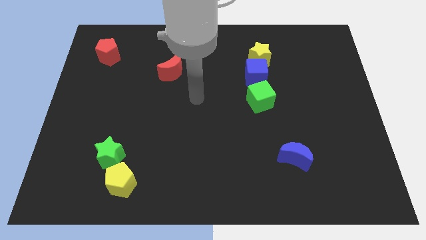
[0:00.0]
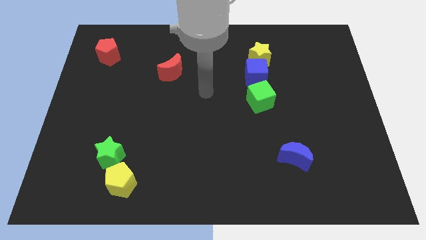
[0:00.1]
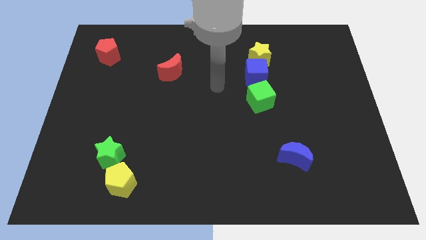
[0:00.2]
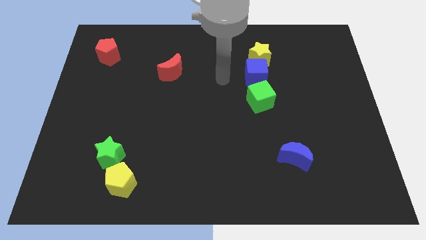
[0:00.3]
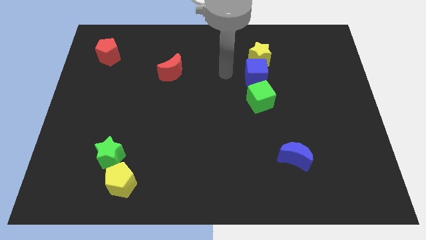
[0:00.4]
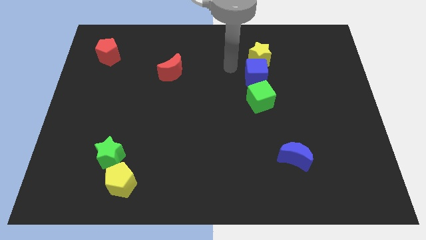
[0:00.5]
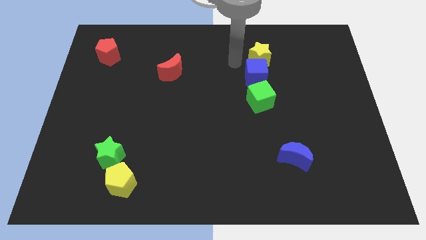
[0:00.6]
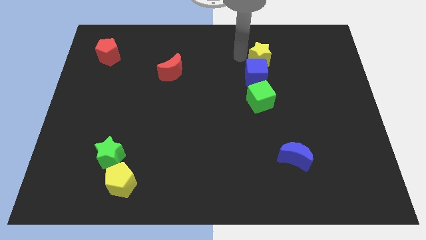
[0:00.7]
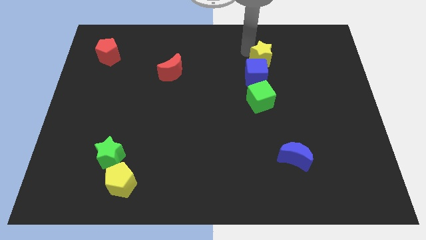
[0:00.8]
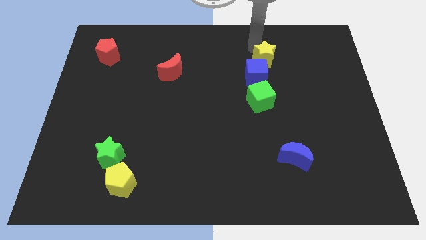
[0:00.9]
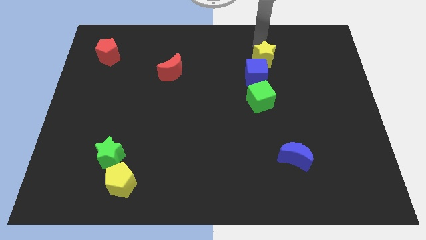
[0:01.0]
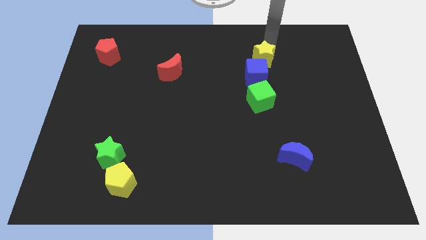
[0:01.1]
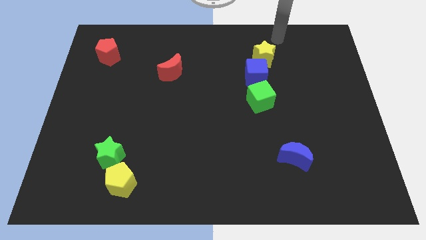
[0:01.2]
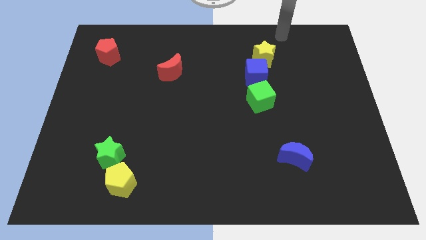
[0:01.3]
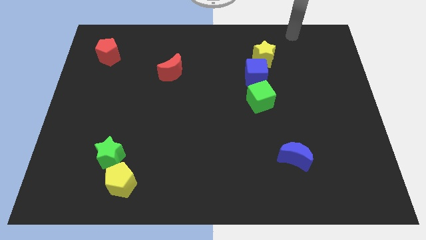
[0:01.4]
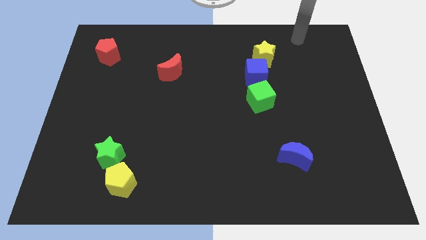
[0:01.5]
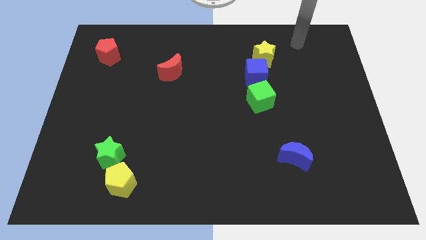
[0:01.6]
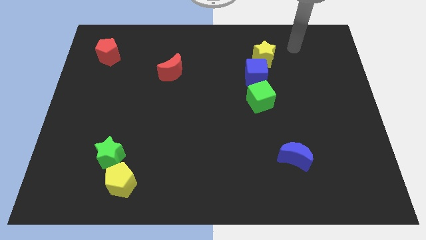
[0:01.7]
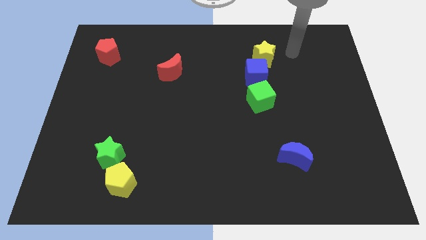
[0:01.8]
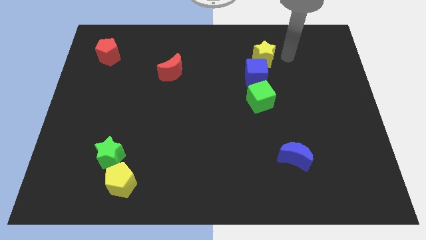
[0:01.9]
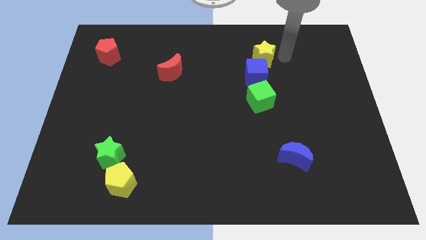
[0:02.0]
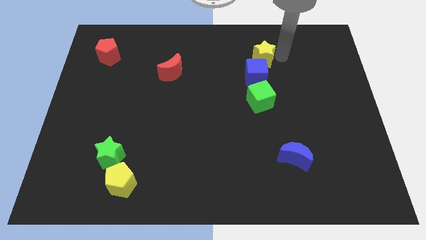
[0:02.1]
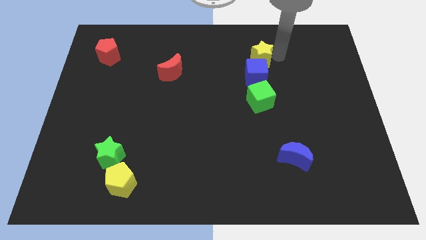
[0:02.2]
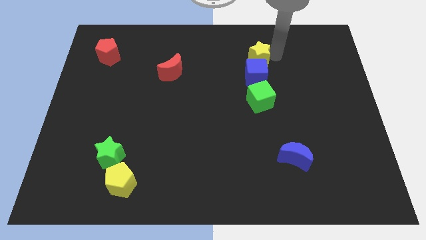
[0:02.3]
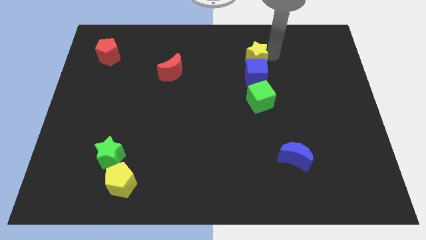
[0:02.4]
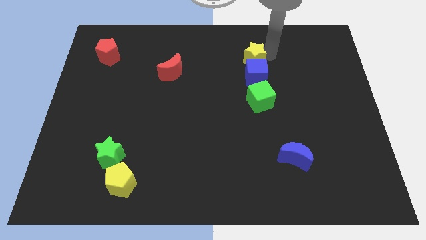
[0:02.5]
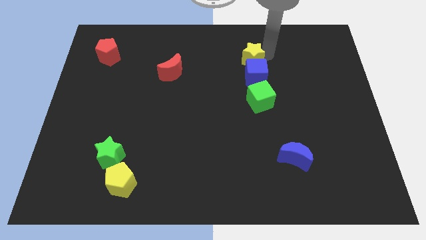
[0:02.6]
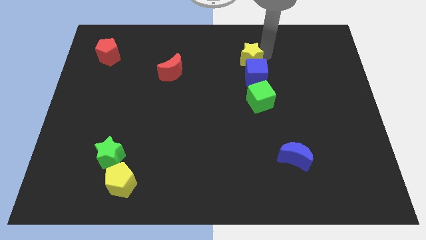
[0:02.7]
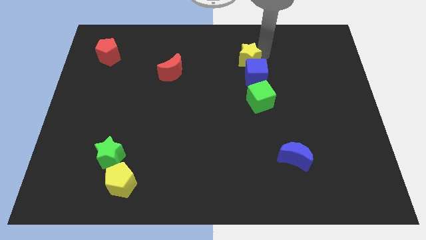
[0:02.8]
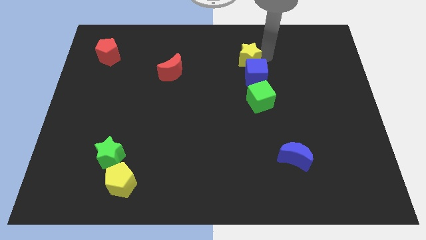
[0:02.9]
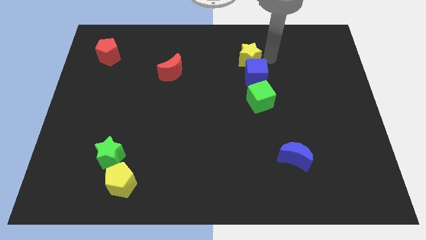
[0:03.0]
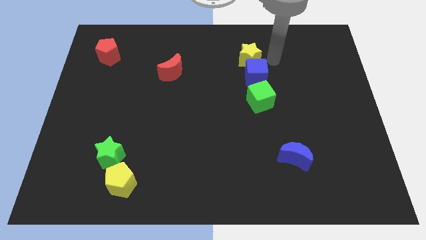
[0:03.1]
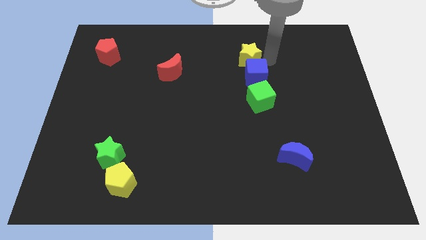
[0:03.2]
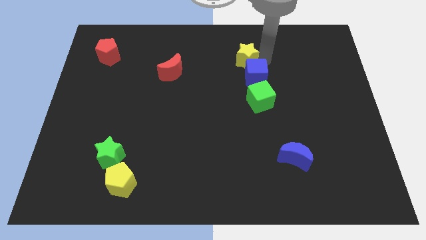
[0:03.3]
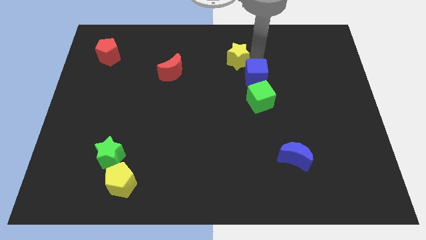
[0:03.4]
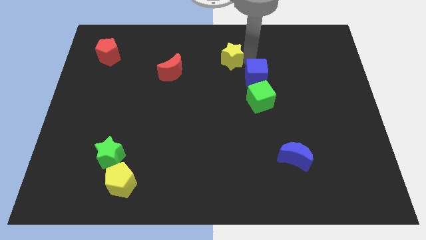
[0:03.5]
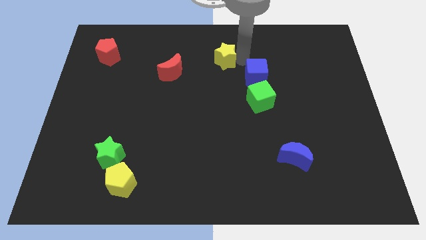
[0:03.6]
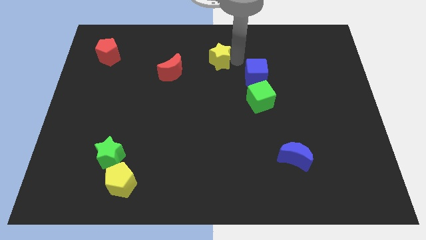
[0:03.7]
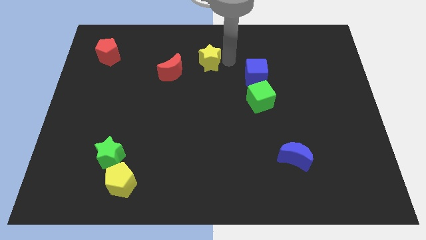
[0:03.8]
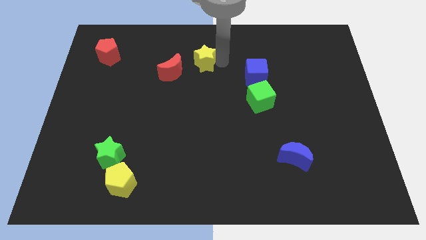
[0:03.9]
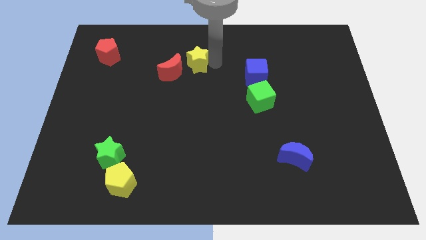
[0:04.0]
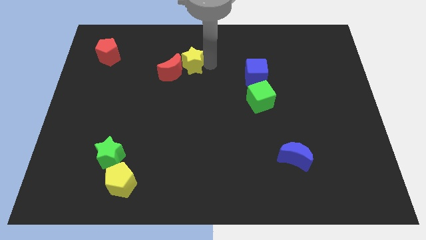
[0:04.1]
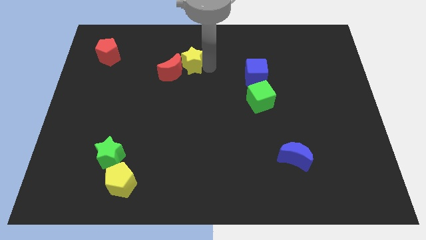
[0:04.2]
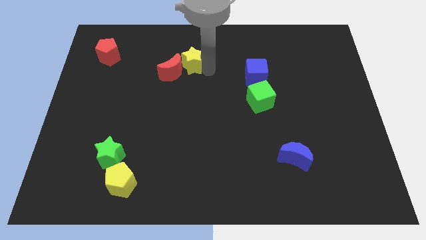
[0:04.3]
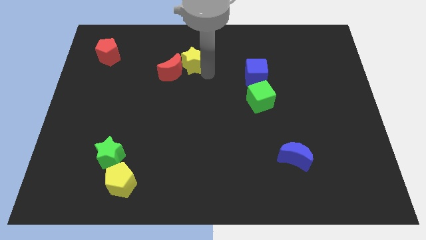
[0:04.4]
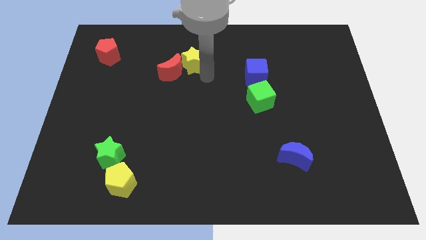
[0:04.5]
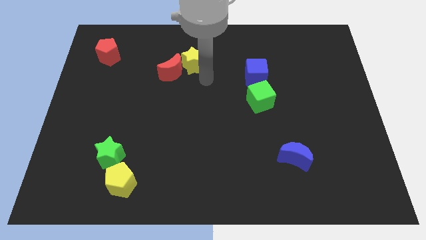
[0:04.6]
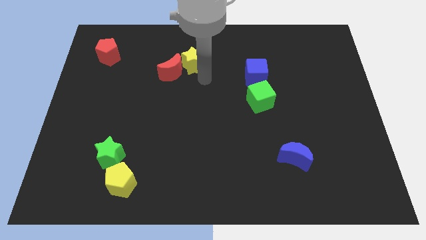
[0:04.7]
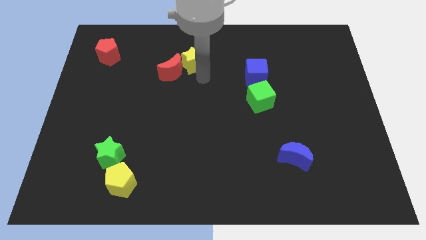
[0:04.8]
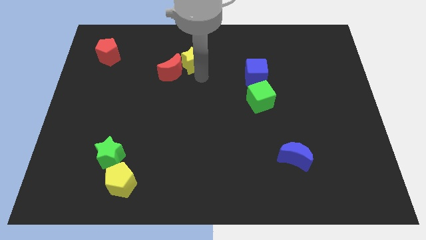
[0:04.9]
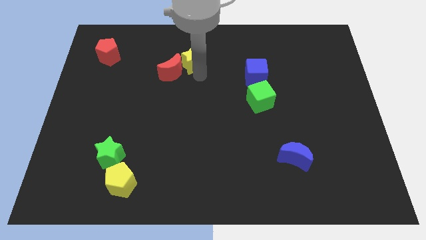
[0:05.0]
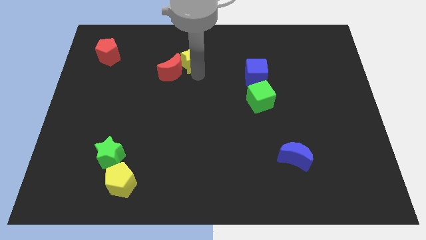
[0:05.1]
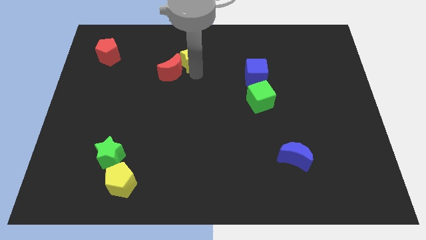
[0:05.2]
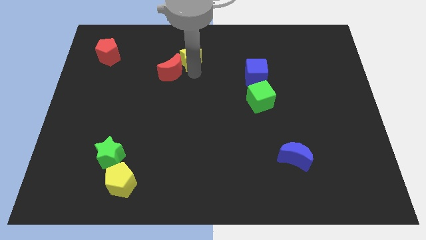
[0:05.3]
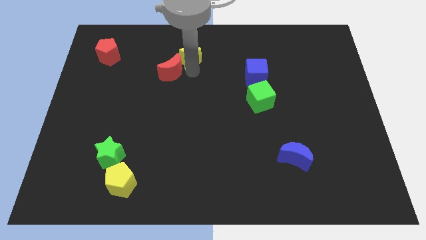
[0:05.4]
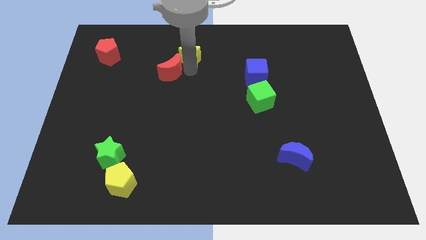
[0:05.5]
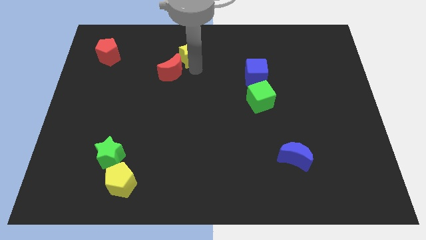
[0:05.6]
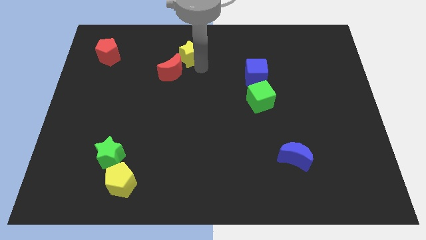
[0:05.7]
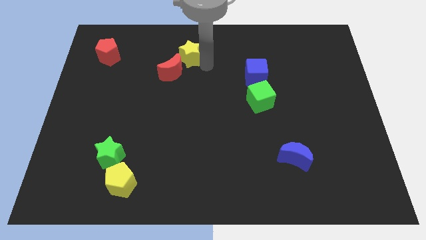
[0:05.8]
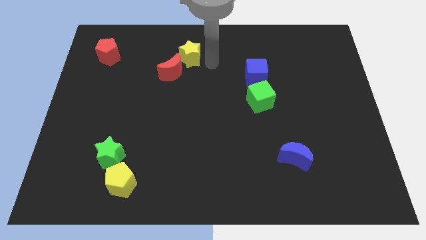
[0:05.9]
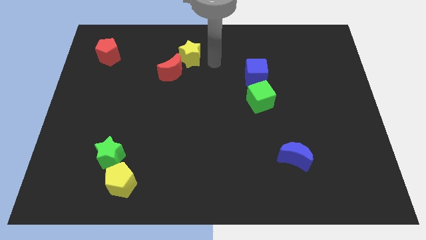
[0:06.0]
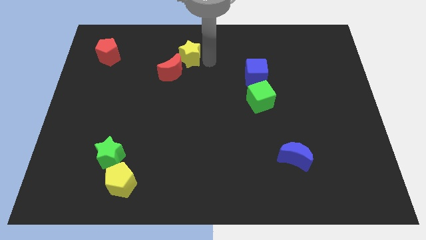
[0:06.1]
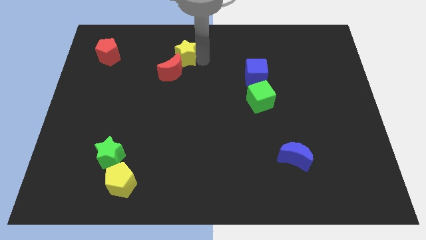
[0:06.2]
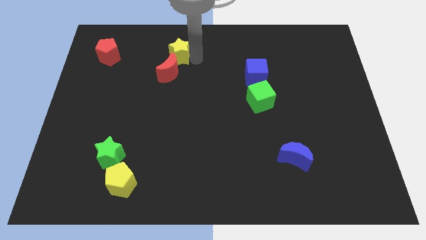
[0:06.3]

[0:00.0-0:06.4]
slide the yellow star to the left

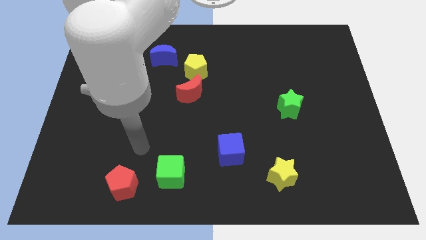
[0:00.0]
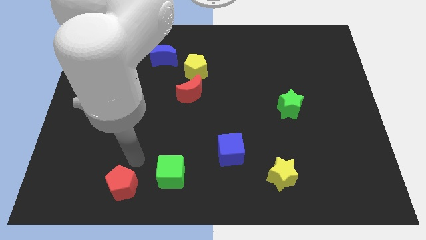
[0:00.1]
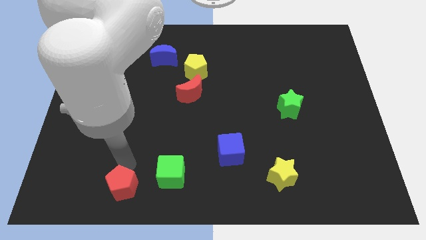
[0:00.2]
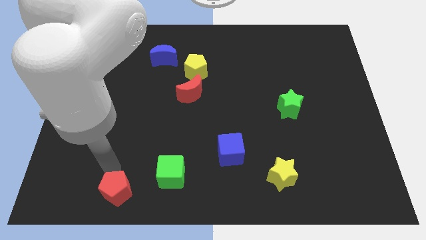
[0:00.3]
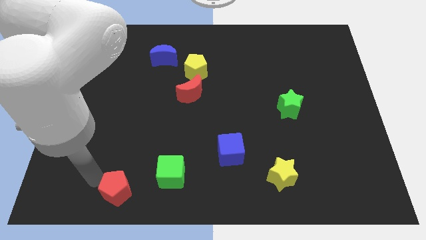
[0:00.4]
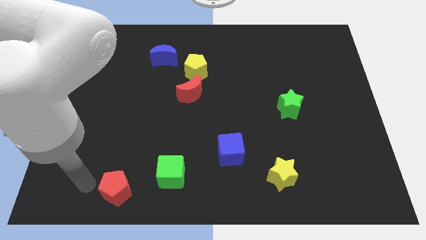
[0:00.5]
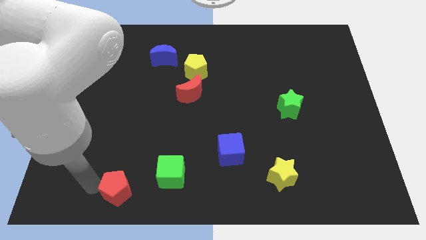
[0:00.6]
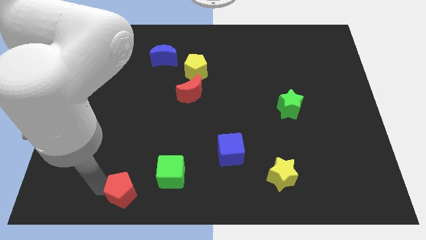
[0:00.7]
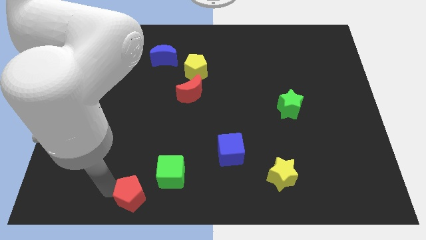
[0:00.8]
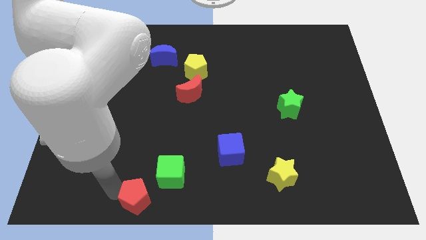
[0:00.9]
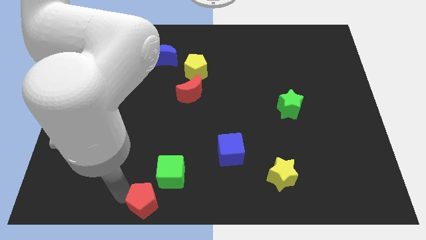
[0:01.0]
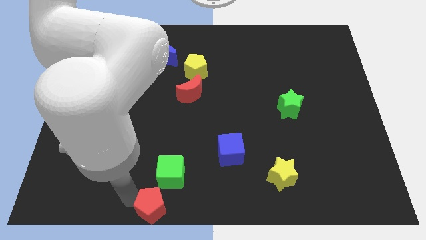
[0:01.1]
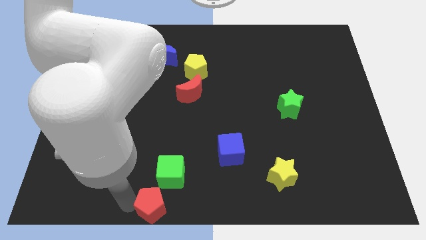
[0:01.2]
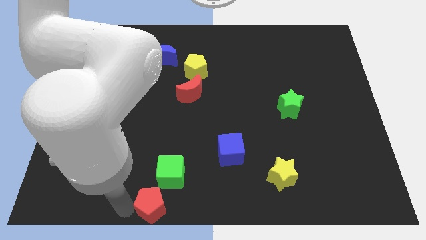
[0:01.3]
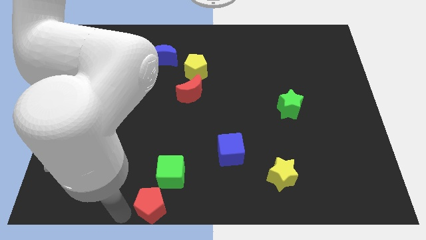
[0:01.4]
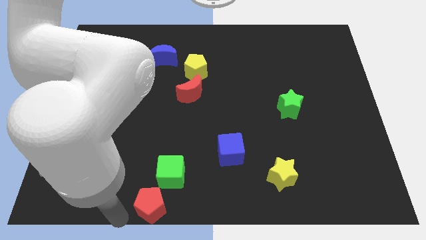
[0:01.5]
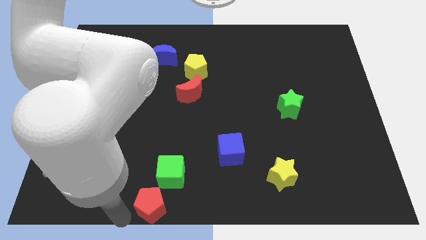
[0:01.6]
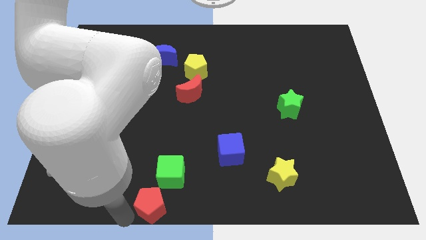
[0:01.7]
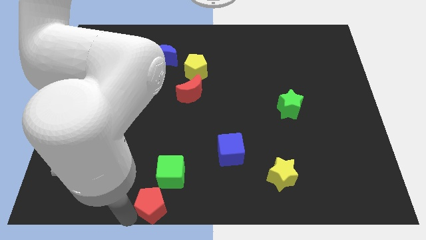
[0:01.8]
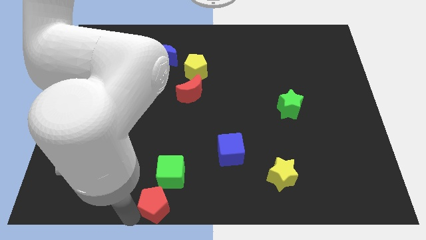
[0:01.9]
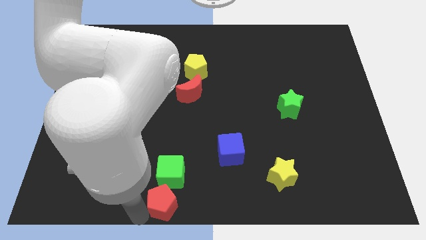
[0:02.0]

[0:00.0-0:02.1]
slide the red pentagon right a bit

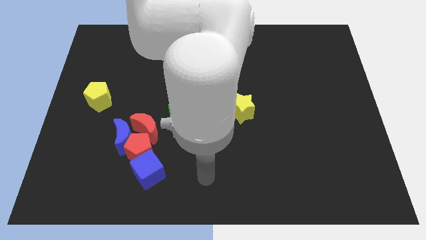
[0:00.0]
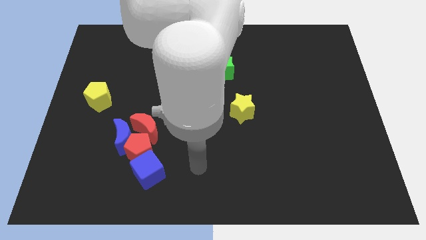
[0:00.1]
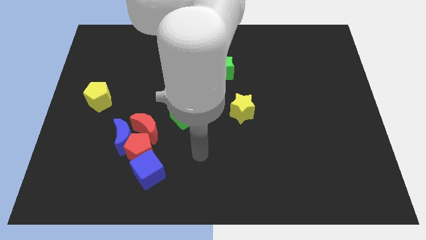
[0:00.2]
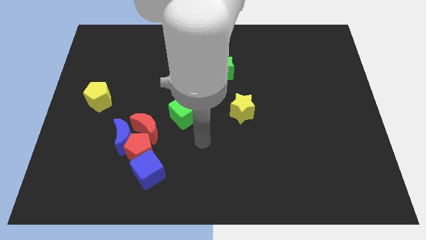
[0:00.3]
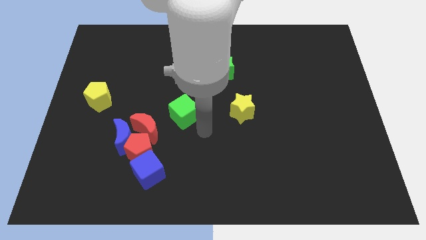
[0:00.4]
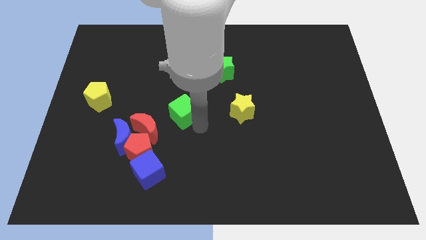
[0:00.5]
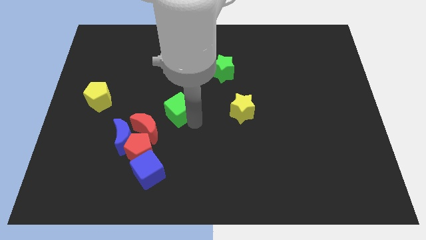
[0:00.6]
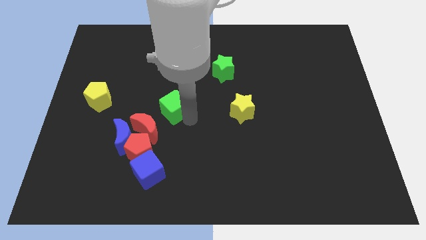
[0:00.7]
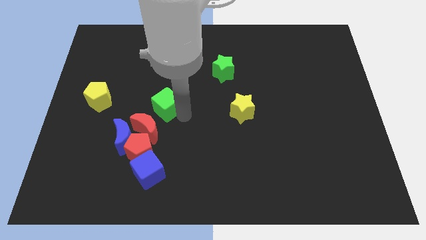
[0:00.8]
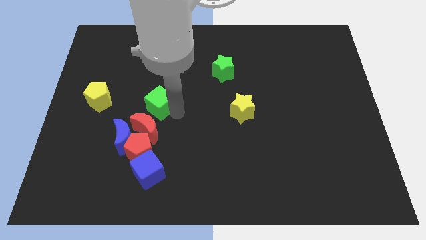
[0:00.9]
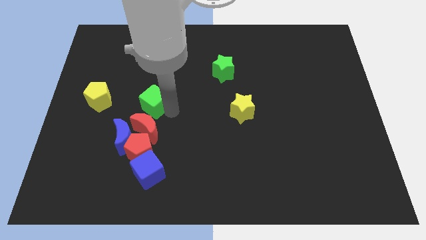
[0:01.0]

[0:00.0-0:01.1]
push the green cube upwards and to the left diagonally a bit
